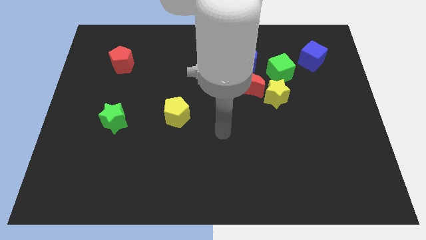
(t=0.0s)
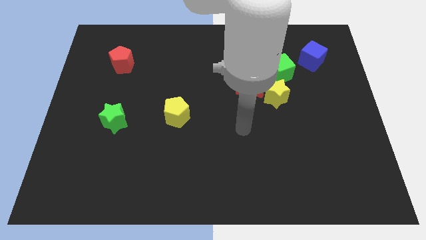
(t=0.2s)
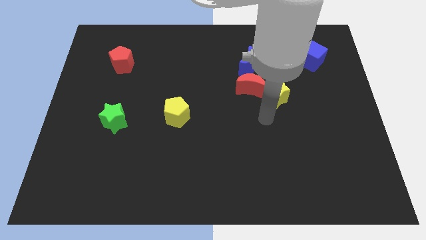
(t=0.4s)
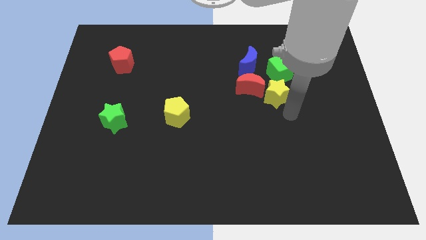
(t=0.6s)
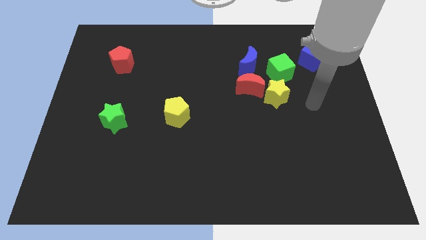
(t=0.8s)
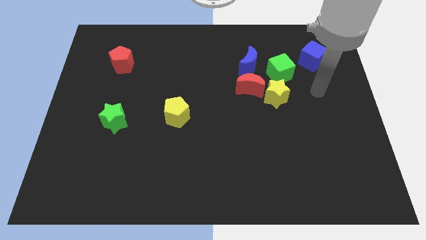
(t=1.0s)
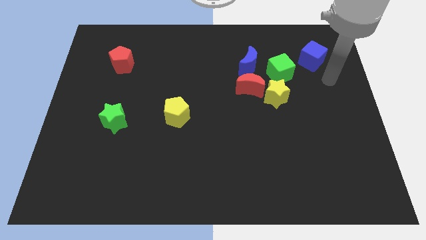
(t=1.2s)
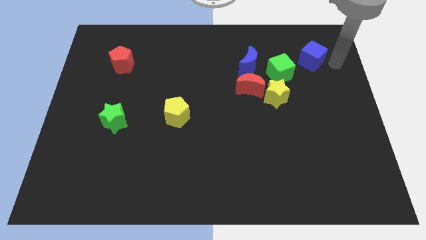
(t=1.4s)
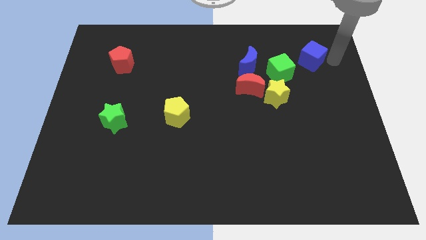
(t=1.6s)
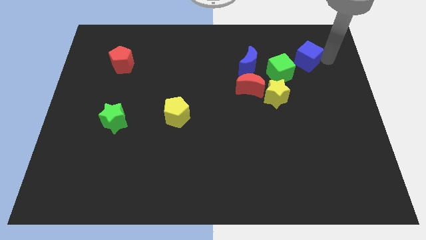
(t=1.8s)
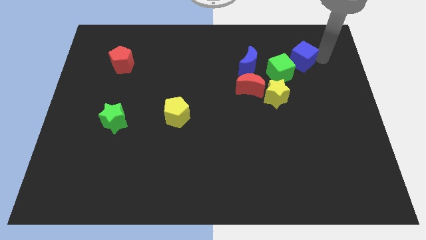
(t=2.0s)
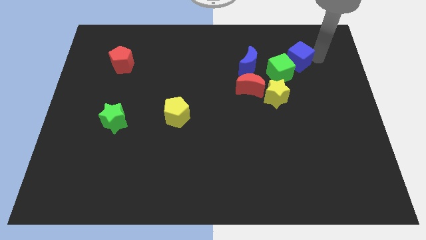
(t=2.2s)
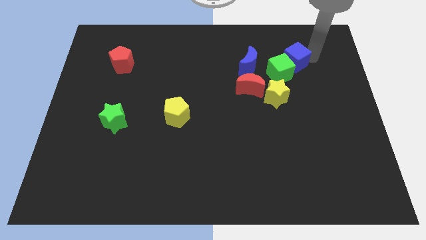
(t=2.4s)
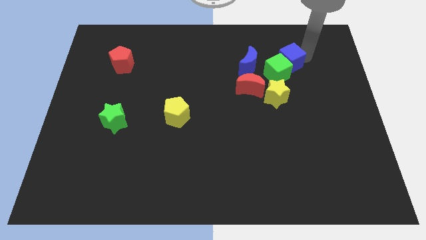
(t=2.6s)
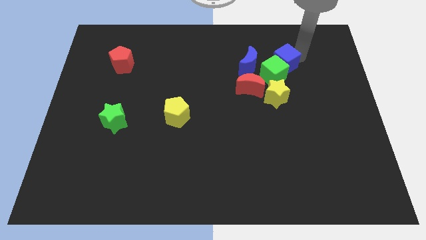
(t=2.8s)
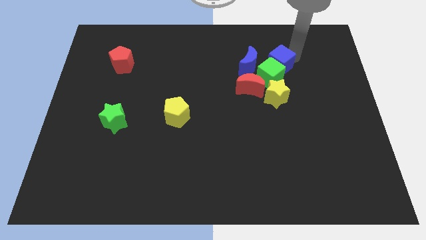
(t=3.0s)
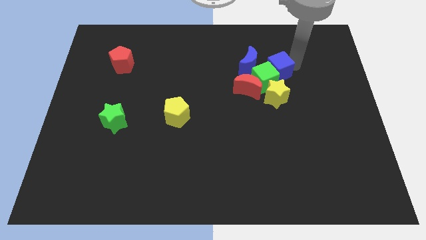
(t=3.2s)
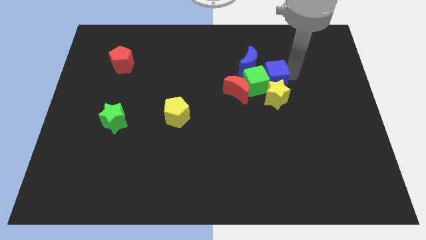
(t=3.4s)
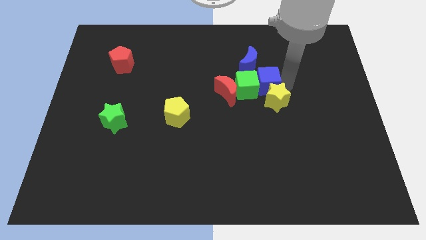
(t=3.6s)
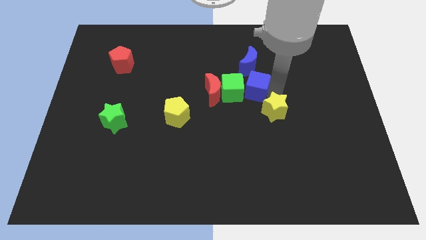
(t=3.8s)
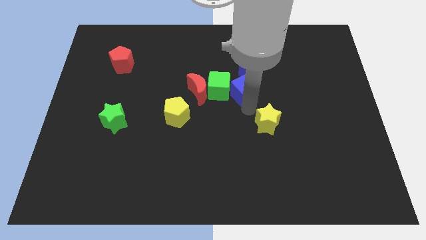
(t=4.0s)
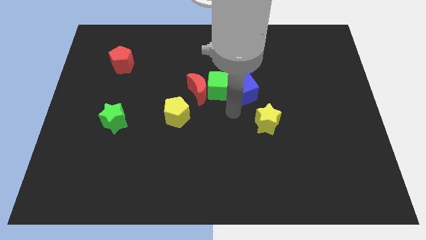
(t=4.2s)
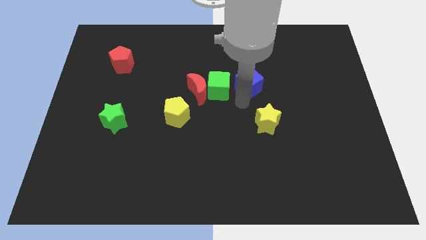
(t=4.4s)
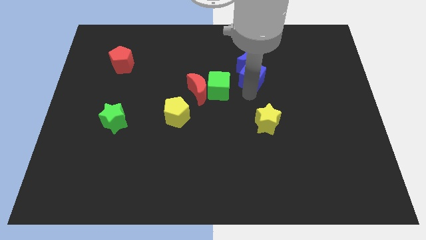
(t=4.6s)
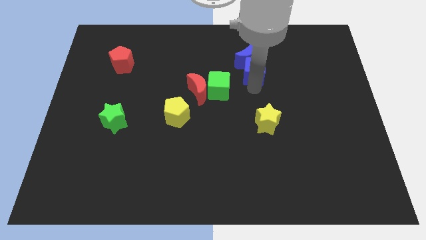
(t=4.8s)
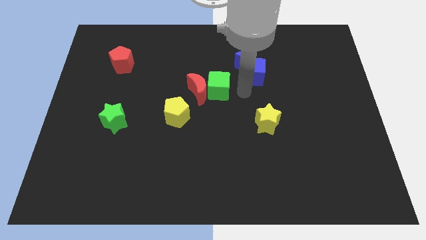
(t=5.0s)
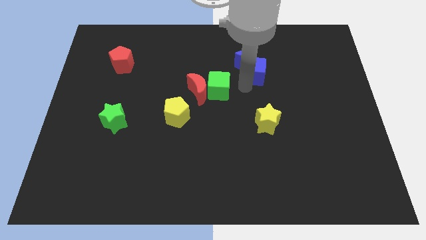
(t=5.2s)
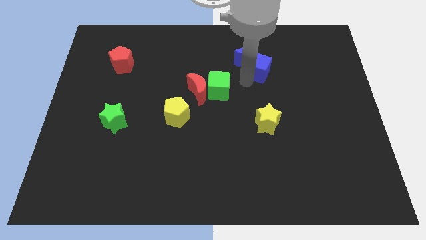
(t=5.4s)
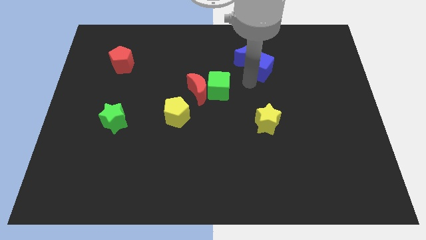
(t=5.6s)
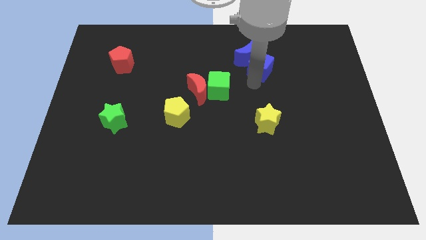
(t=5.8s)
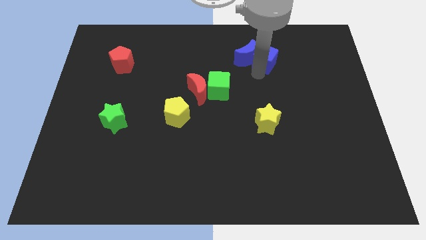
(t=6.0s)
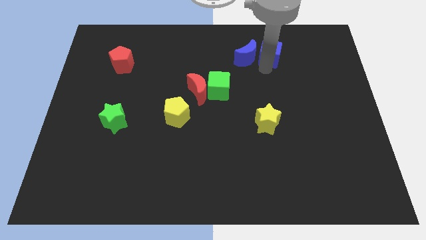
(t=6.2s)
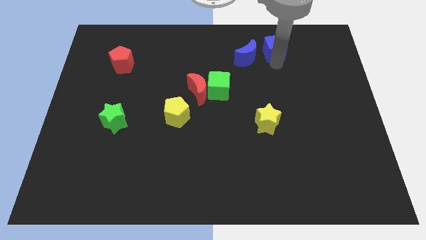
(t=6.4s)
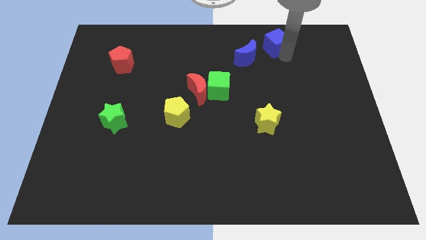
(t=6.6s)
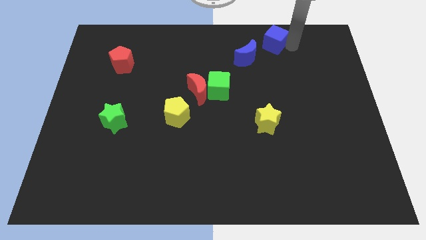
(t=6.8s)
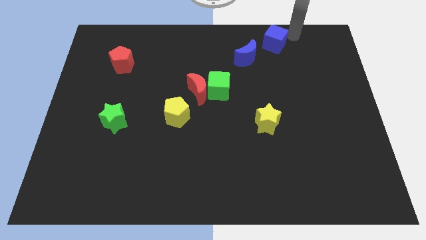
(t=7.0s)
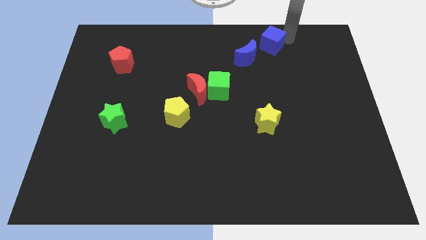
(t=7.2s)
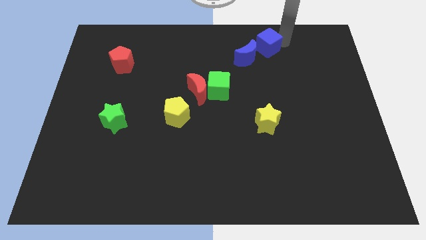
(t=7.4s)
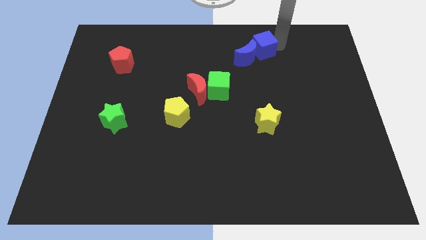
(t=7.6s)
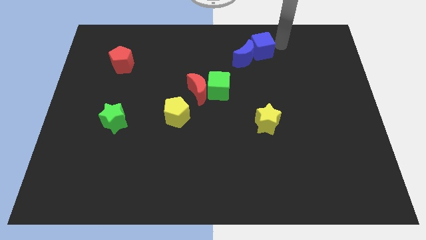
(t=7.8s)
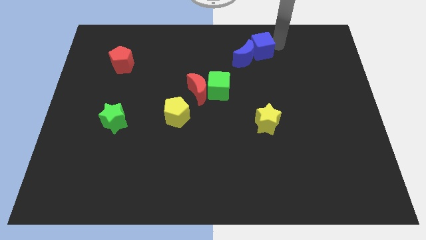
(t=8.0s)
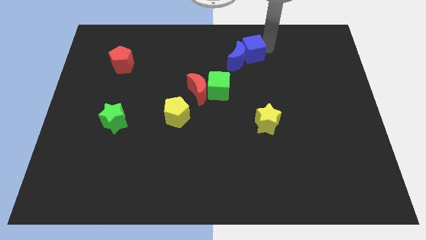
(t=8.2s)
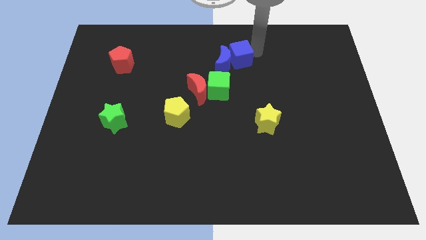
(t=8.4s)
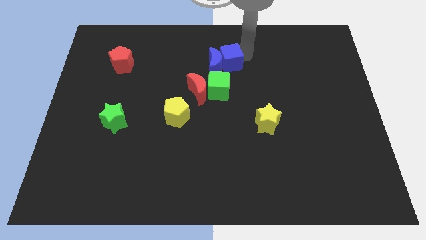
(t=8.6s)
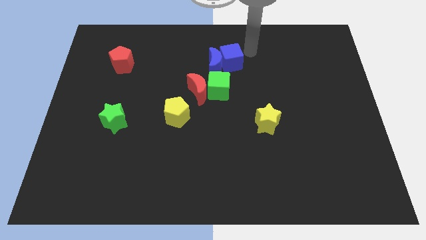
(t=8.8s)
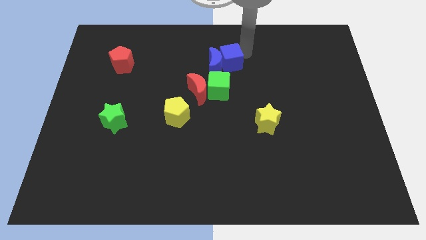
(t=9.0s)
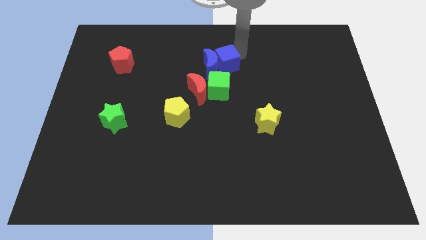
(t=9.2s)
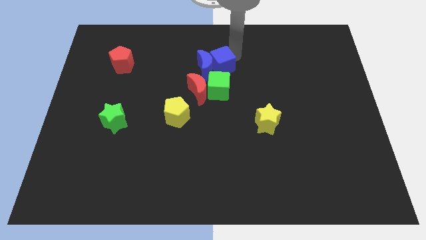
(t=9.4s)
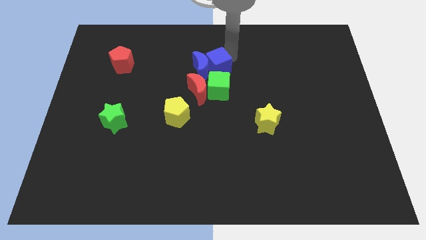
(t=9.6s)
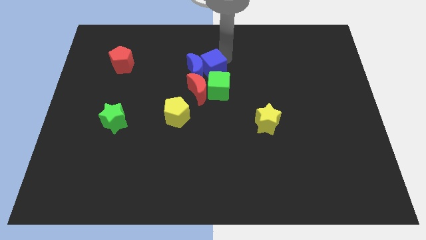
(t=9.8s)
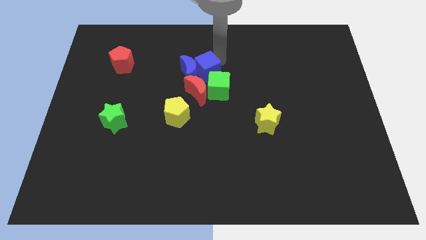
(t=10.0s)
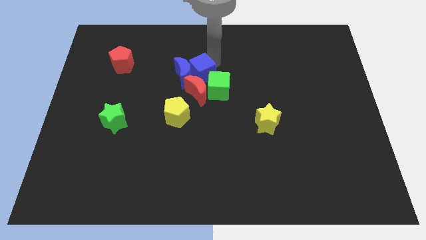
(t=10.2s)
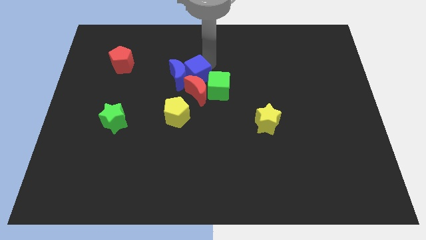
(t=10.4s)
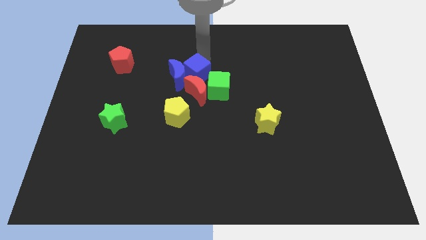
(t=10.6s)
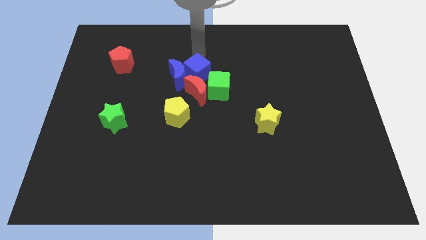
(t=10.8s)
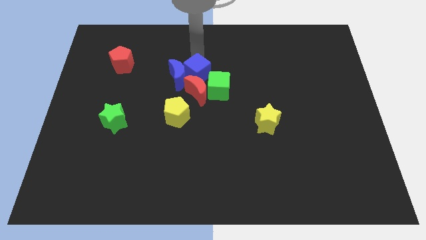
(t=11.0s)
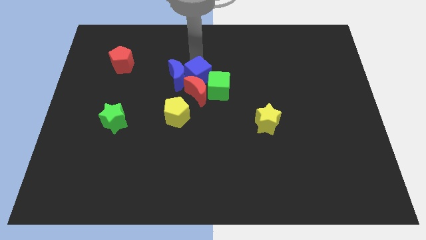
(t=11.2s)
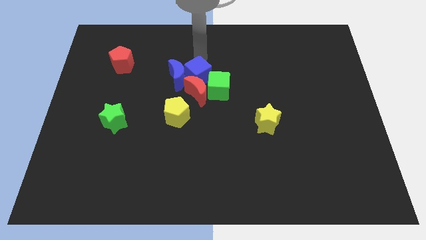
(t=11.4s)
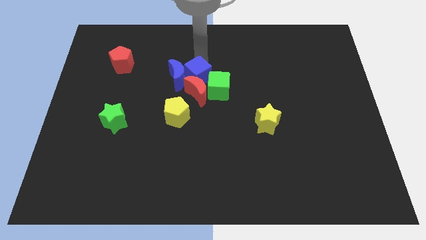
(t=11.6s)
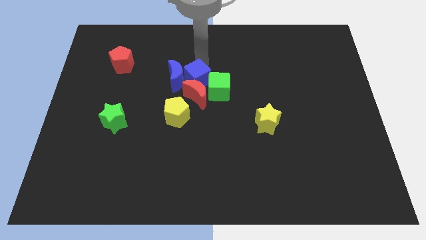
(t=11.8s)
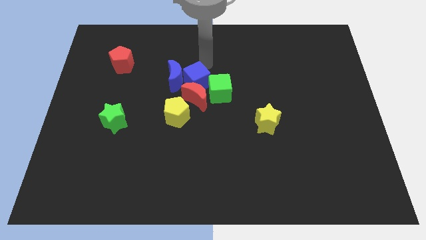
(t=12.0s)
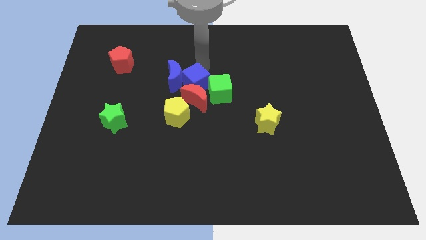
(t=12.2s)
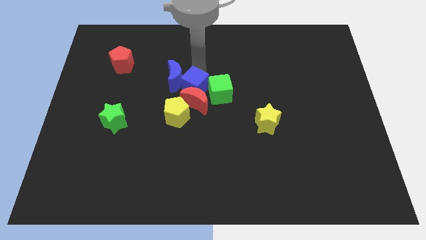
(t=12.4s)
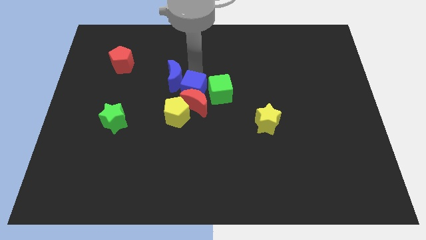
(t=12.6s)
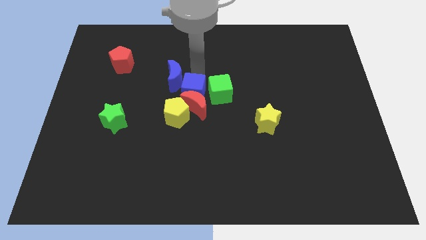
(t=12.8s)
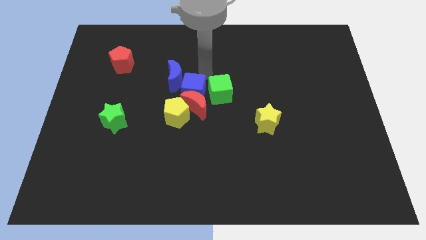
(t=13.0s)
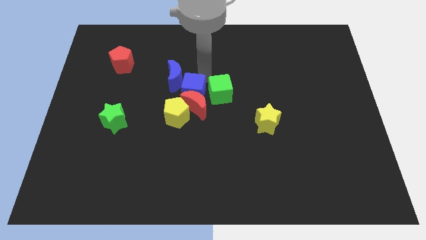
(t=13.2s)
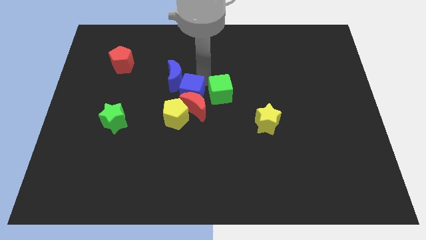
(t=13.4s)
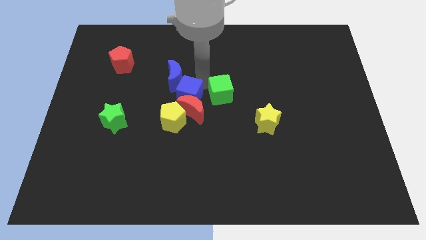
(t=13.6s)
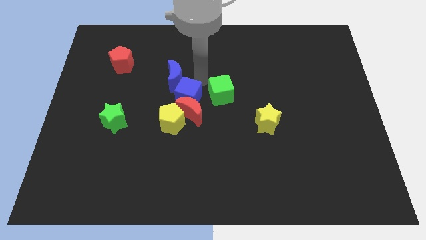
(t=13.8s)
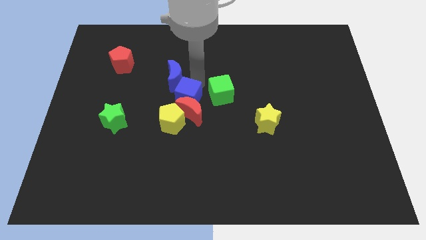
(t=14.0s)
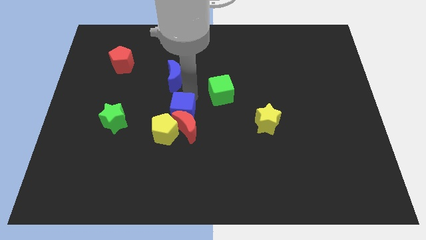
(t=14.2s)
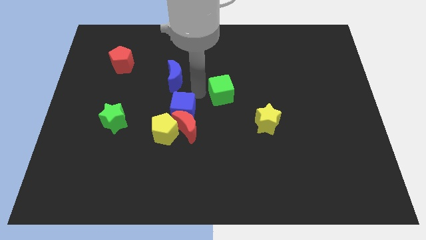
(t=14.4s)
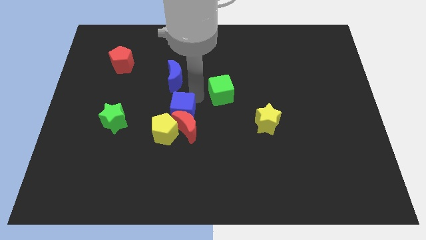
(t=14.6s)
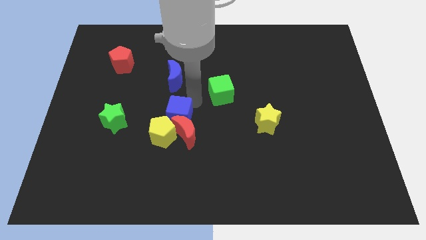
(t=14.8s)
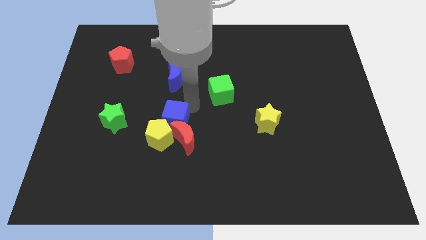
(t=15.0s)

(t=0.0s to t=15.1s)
slide the blue cube close to the yellow pentagon
